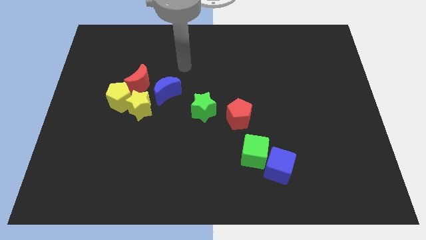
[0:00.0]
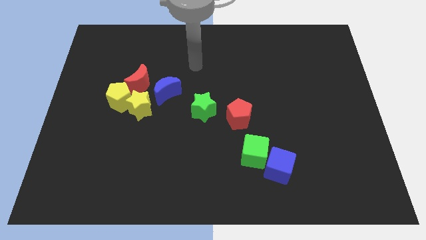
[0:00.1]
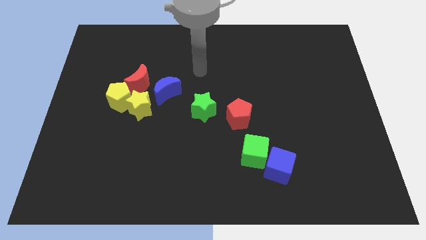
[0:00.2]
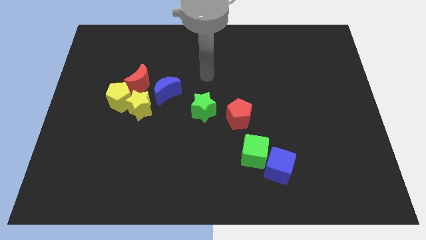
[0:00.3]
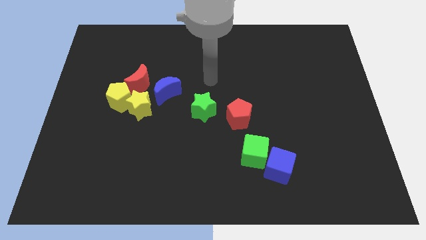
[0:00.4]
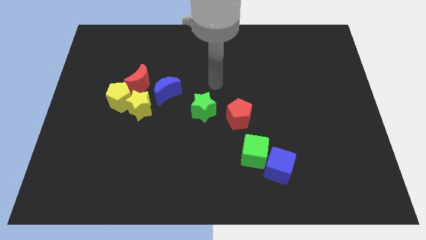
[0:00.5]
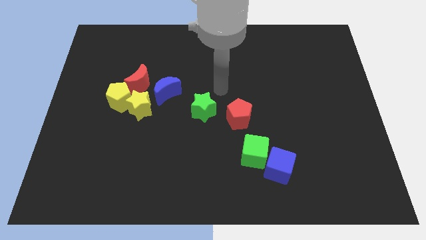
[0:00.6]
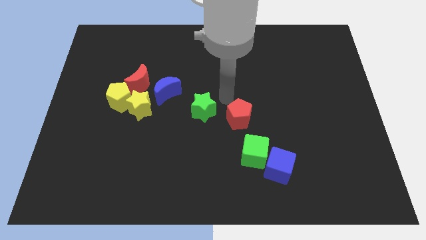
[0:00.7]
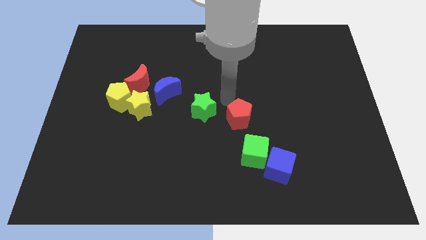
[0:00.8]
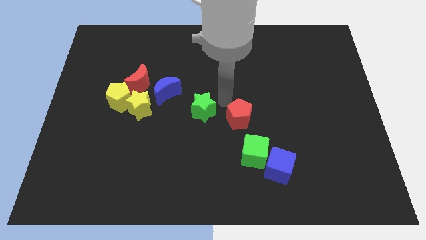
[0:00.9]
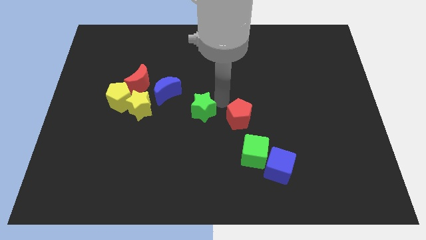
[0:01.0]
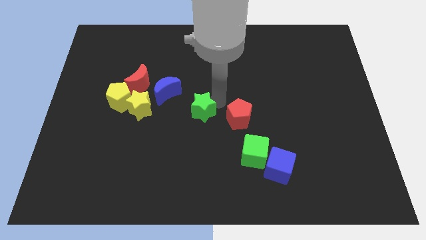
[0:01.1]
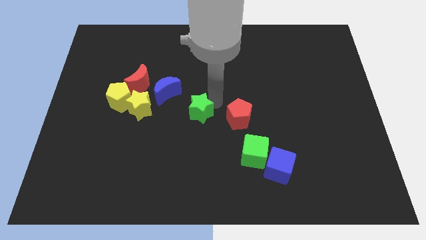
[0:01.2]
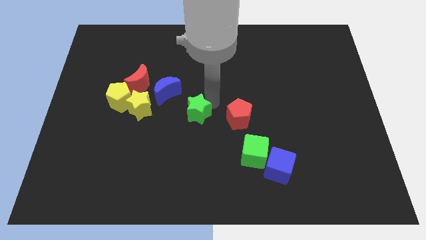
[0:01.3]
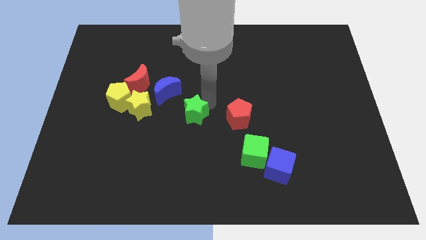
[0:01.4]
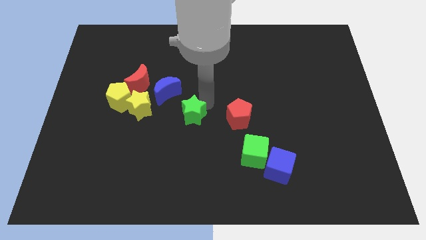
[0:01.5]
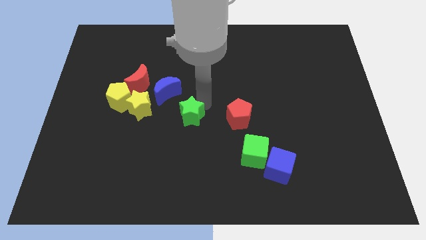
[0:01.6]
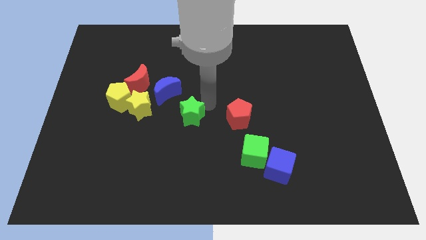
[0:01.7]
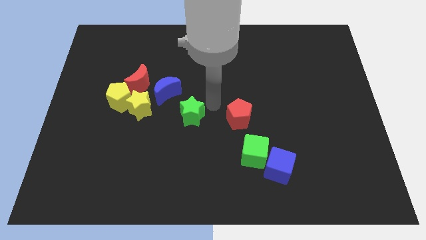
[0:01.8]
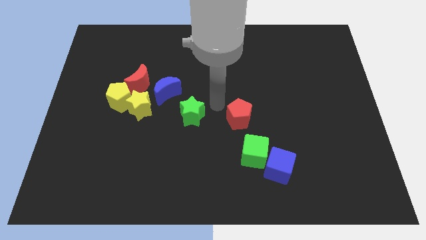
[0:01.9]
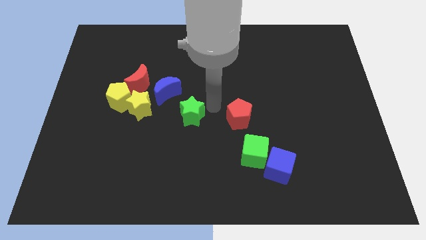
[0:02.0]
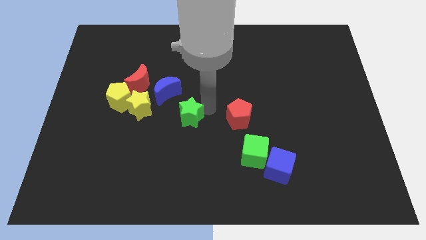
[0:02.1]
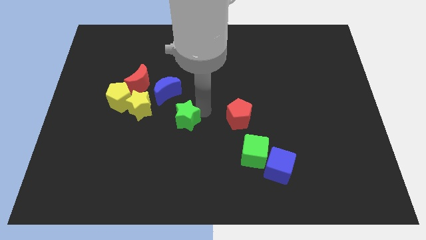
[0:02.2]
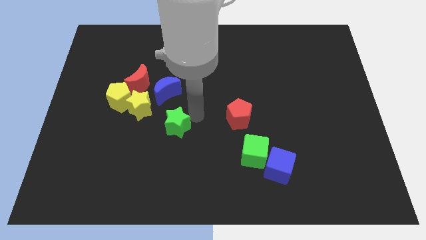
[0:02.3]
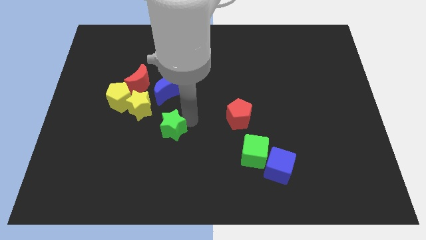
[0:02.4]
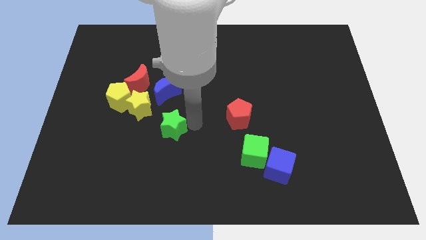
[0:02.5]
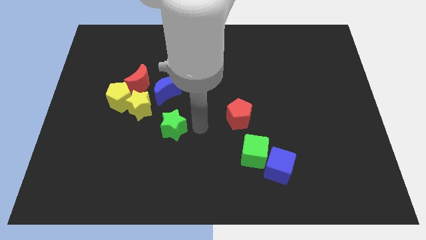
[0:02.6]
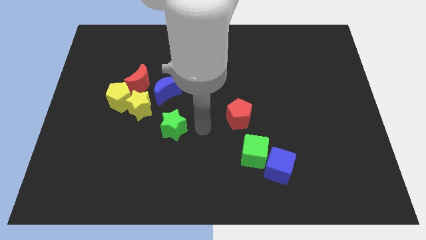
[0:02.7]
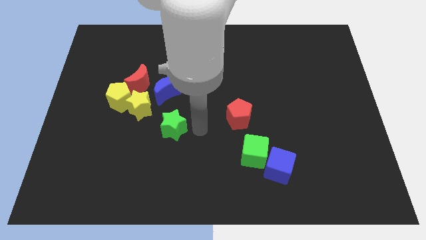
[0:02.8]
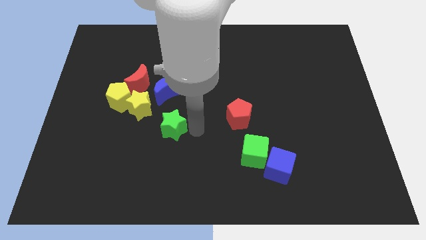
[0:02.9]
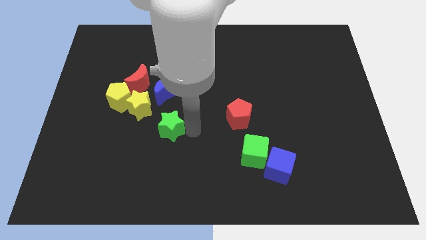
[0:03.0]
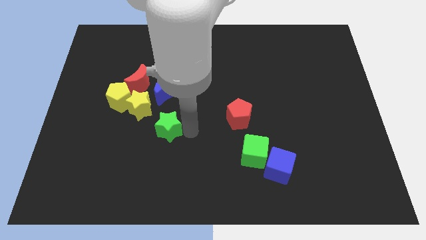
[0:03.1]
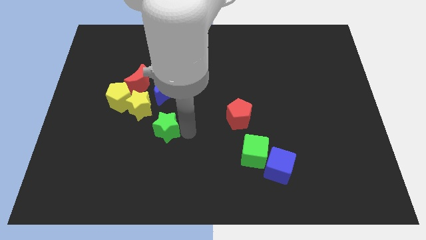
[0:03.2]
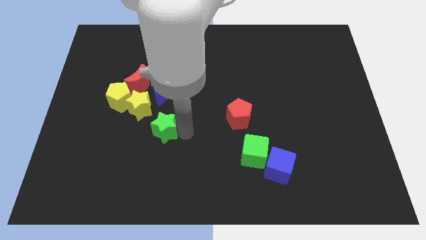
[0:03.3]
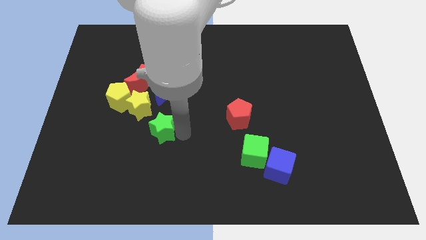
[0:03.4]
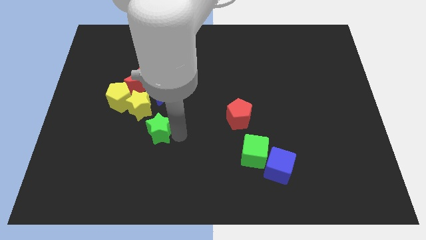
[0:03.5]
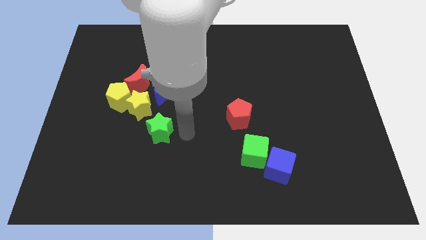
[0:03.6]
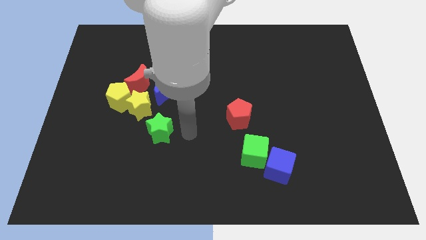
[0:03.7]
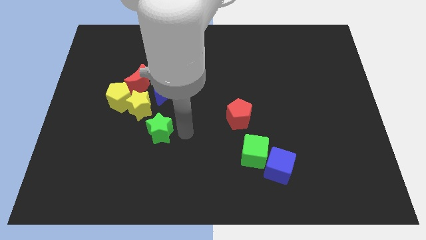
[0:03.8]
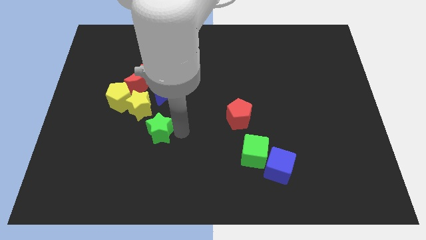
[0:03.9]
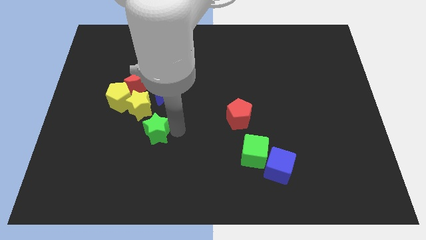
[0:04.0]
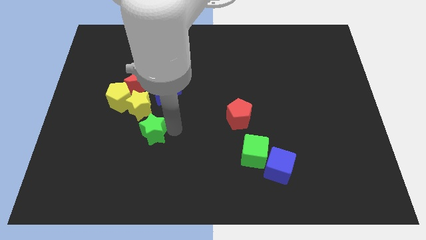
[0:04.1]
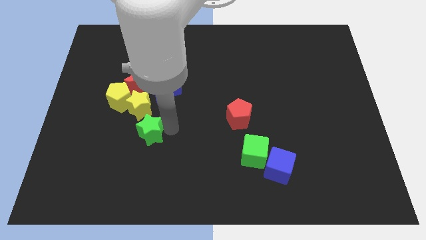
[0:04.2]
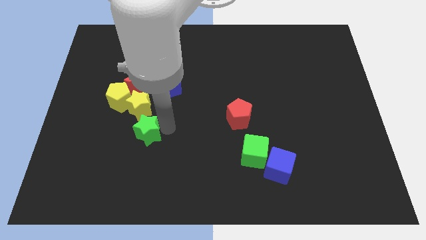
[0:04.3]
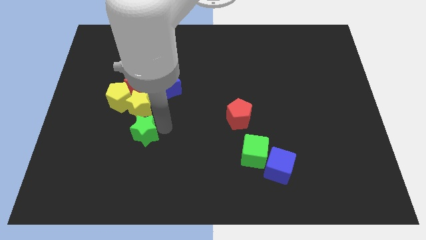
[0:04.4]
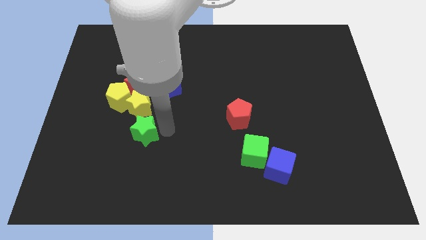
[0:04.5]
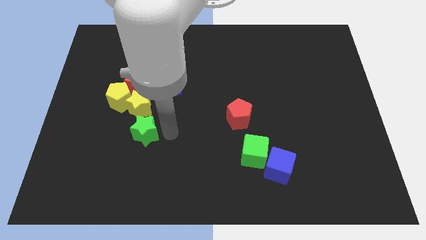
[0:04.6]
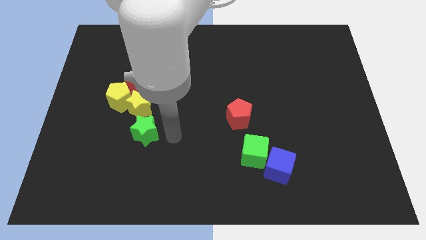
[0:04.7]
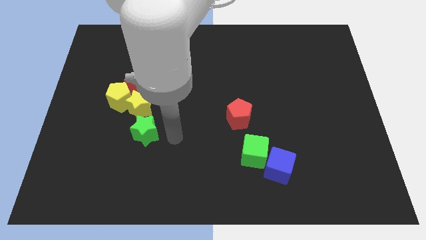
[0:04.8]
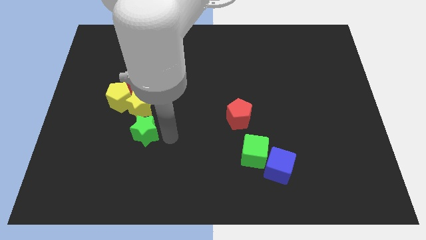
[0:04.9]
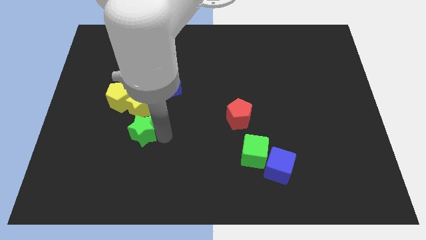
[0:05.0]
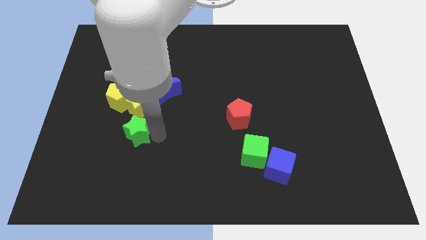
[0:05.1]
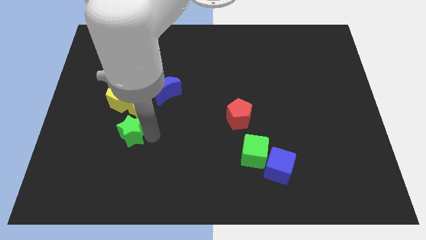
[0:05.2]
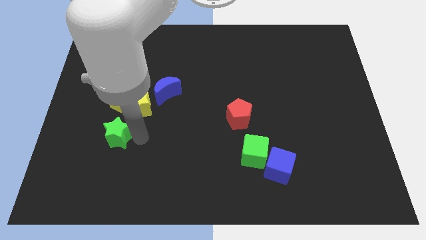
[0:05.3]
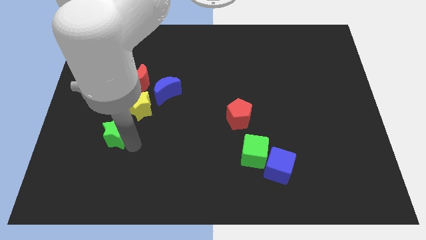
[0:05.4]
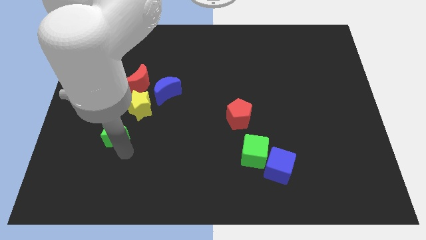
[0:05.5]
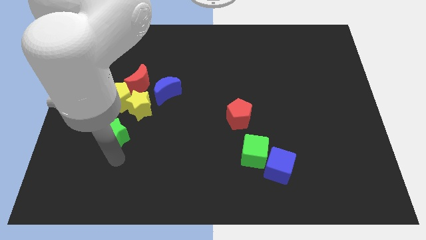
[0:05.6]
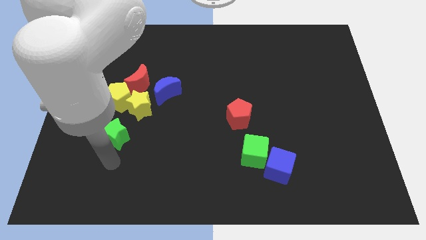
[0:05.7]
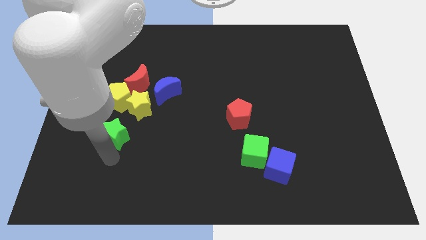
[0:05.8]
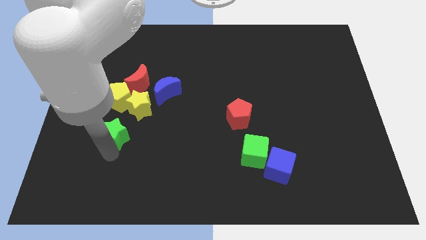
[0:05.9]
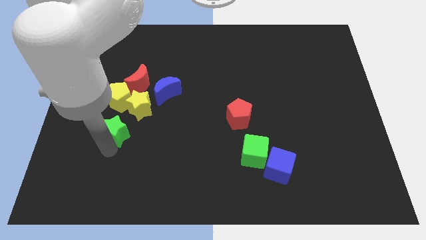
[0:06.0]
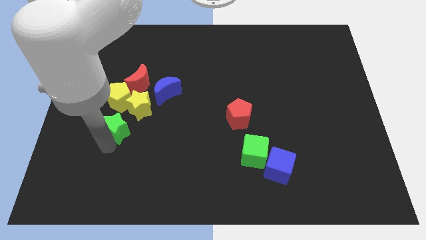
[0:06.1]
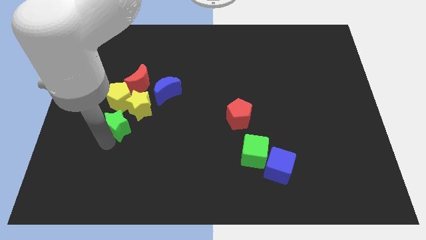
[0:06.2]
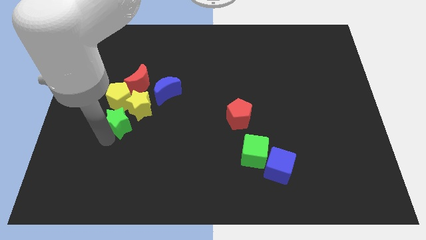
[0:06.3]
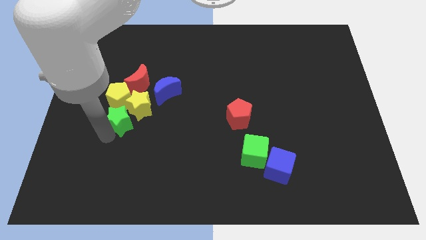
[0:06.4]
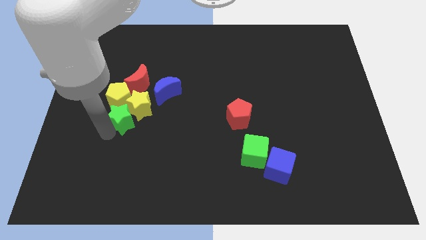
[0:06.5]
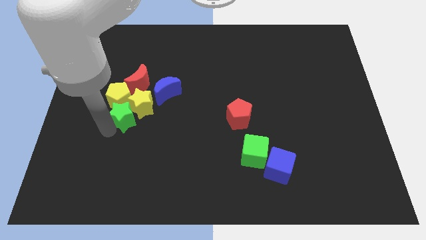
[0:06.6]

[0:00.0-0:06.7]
push the green star towards the yellow pentagon

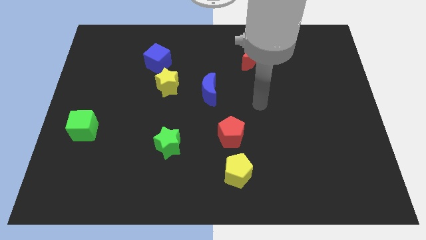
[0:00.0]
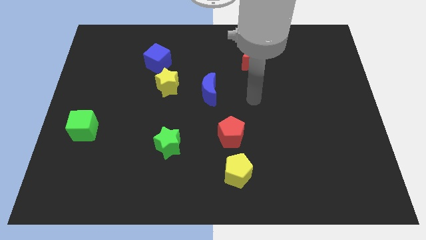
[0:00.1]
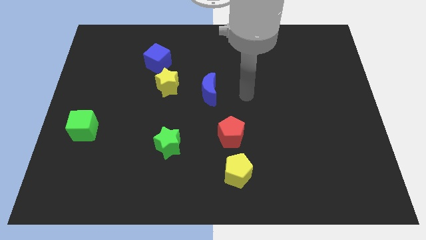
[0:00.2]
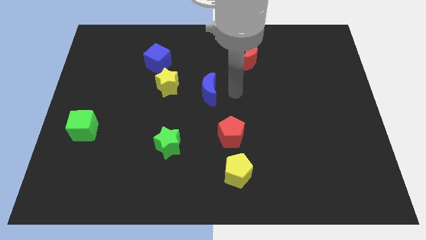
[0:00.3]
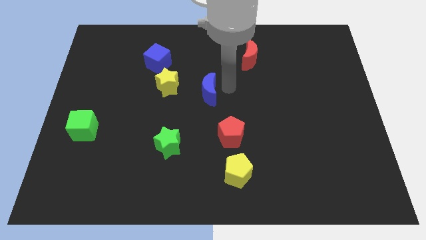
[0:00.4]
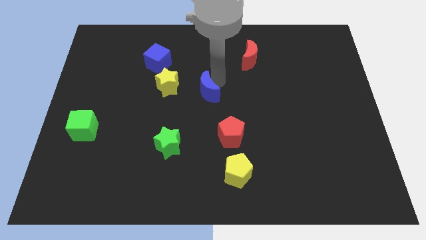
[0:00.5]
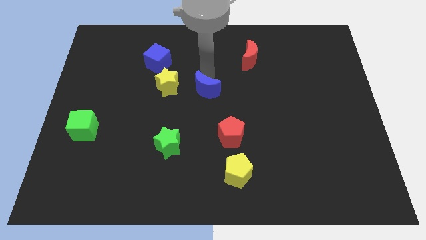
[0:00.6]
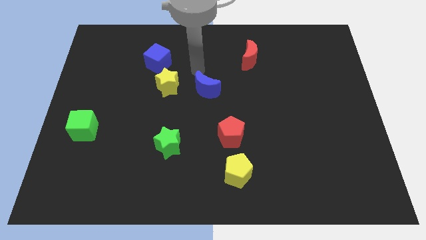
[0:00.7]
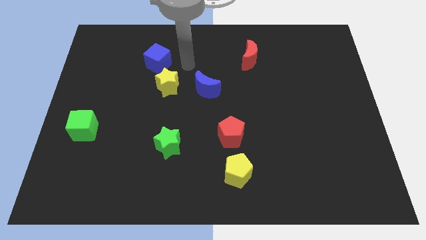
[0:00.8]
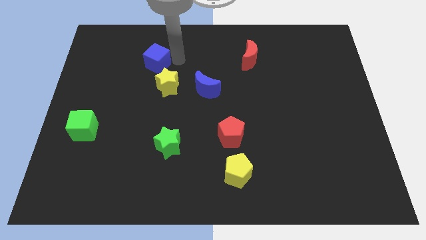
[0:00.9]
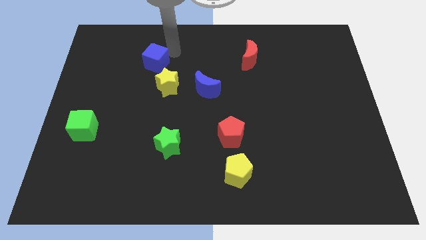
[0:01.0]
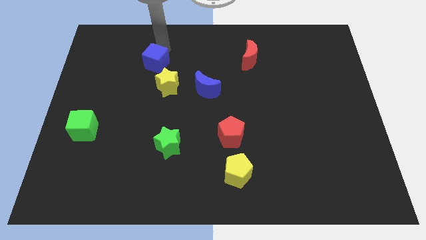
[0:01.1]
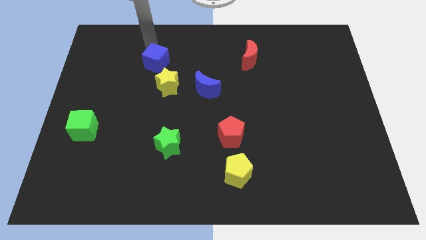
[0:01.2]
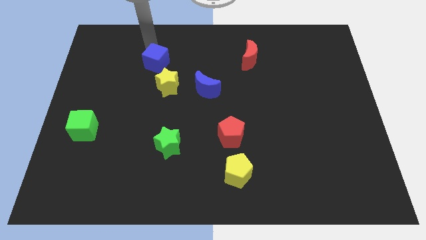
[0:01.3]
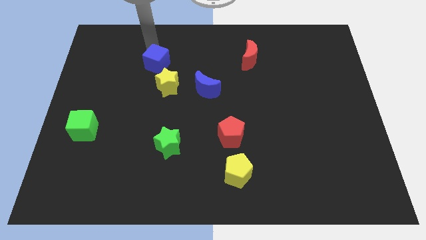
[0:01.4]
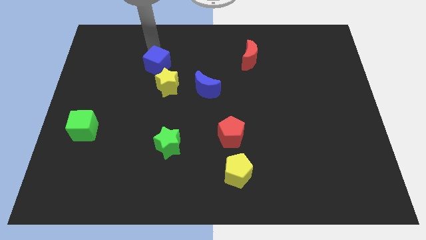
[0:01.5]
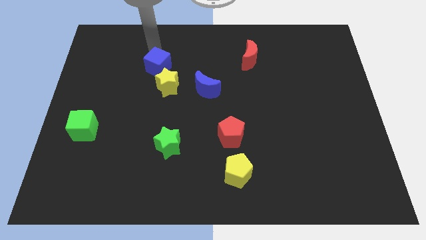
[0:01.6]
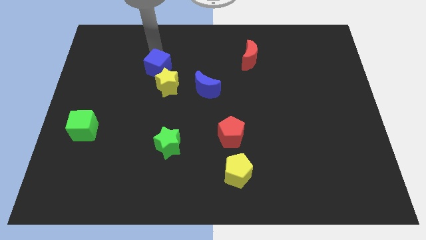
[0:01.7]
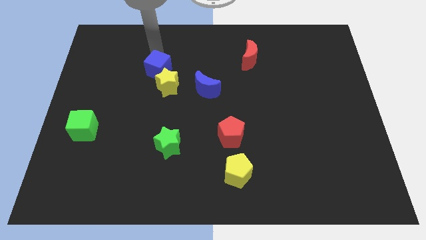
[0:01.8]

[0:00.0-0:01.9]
slide the blue cube towards the yellow star
